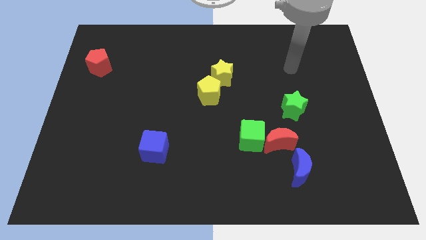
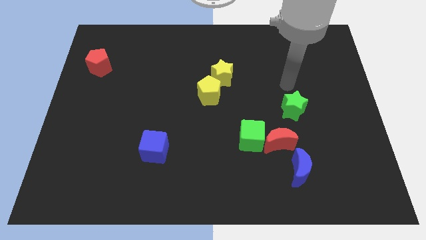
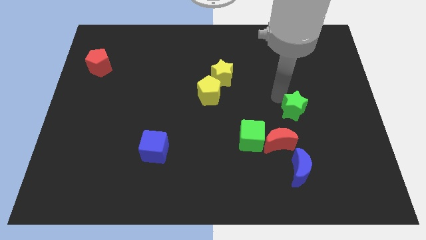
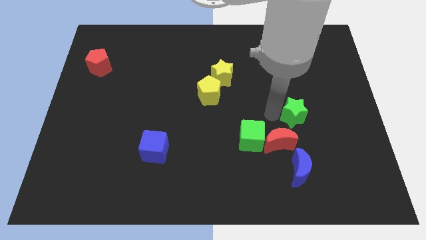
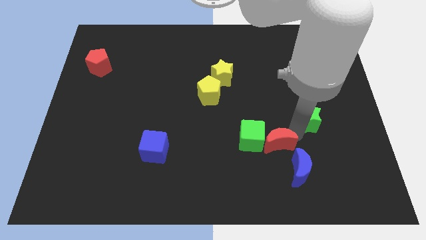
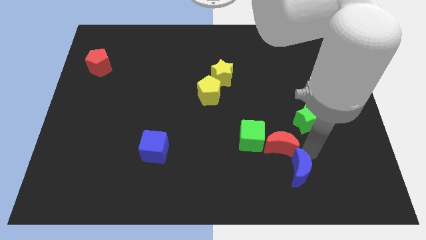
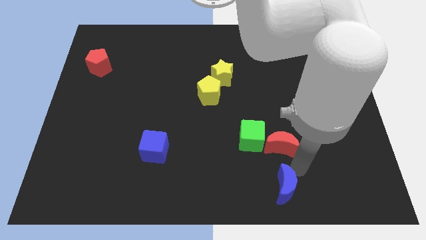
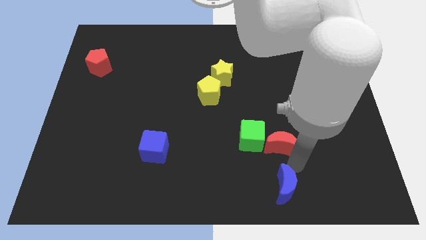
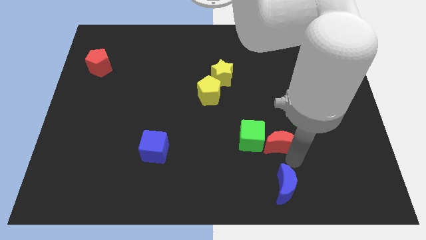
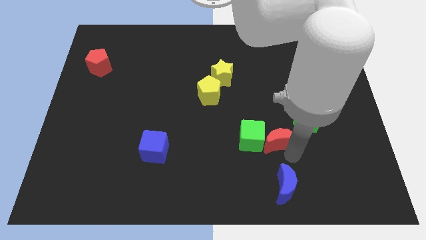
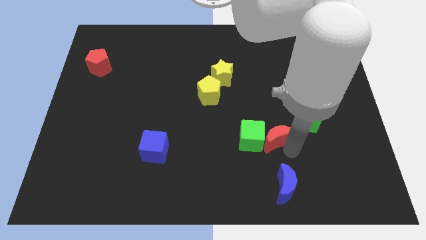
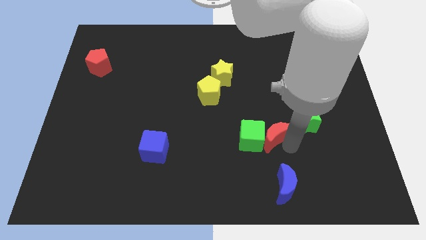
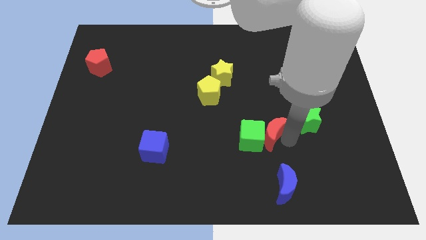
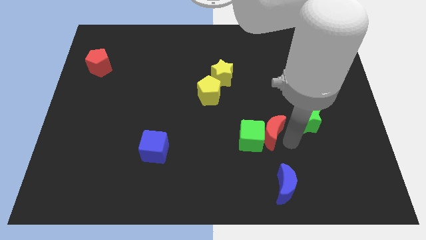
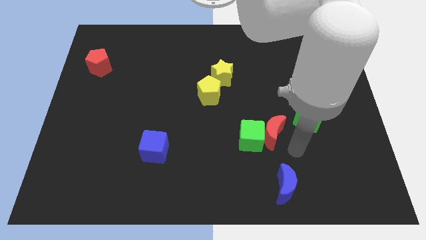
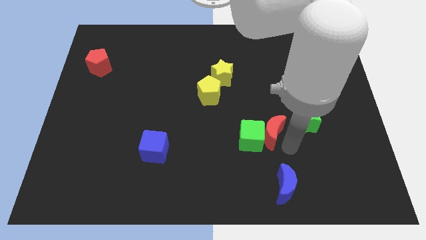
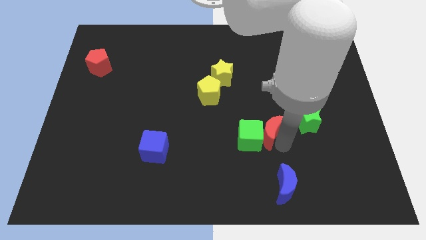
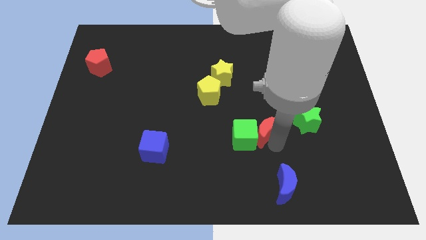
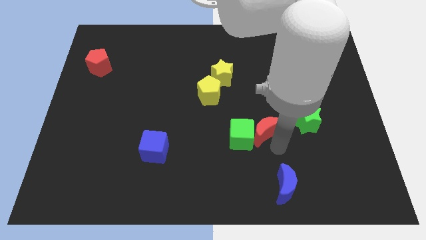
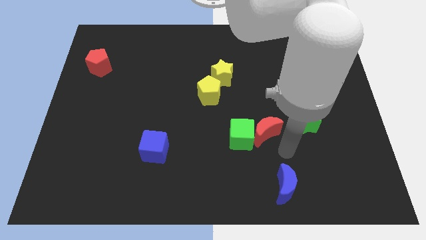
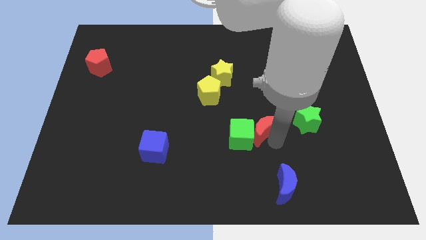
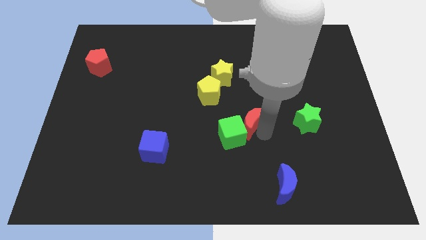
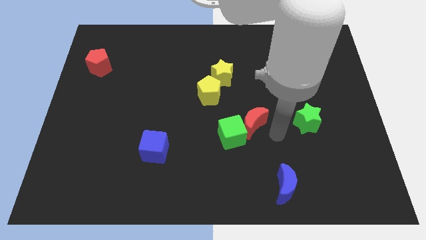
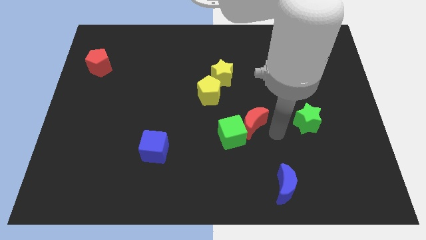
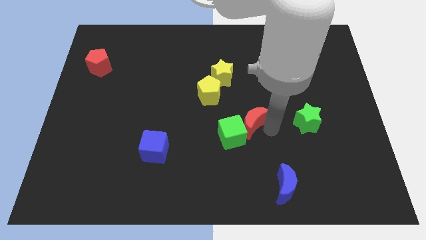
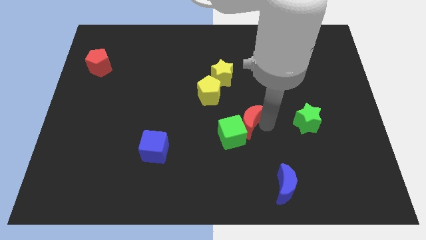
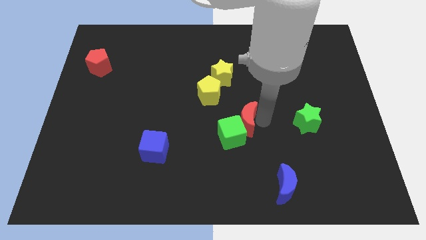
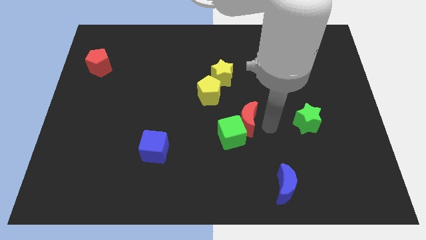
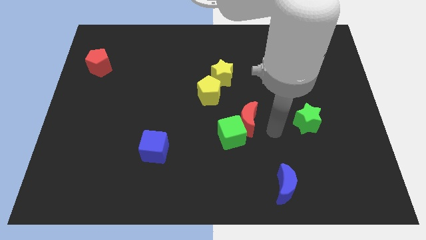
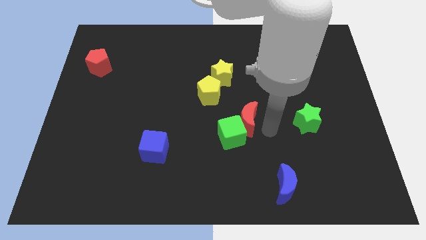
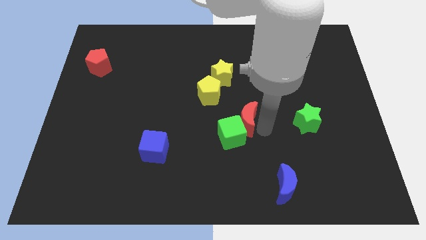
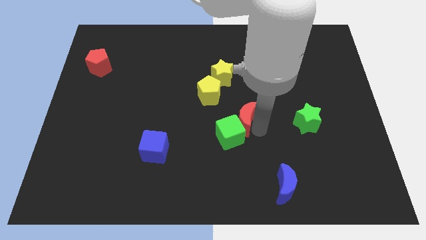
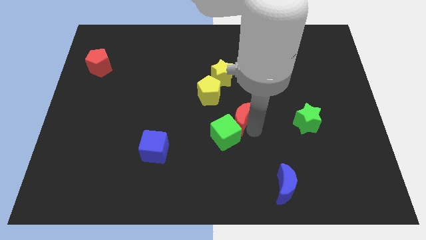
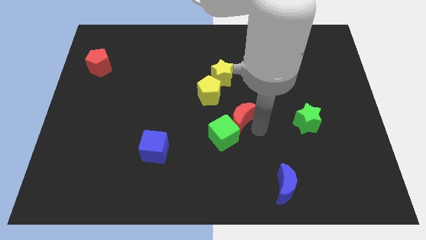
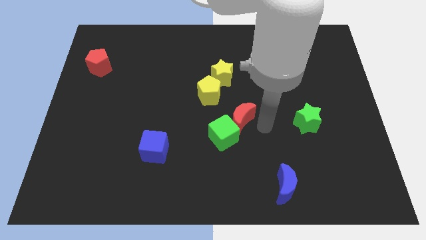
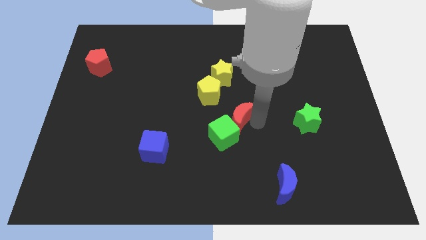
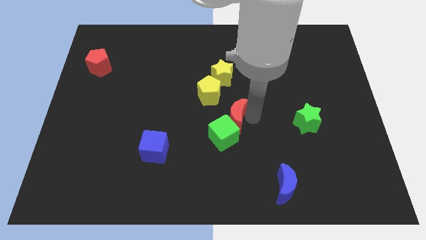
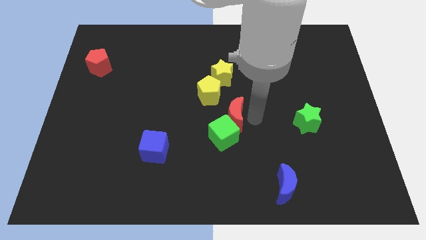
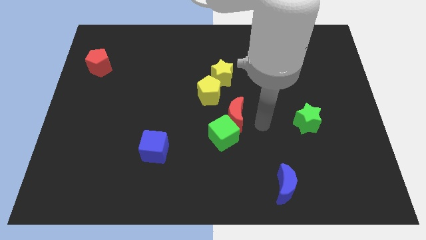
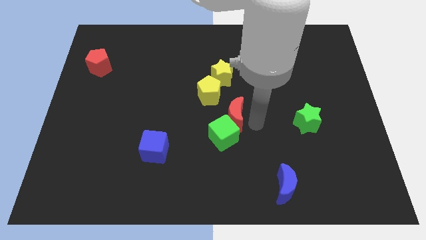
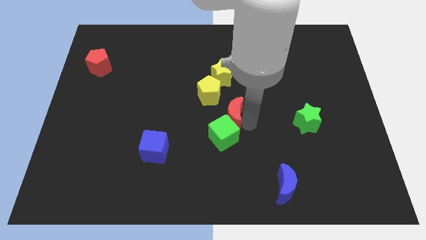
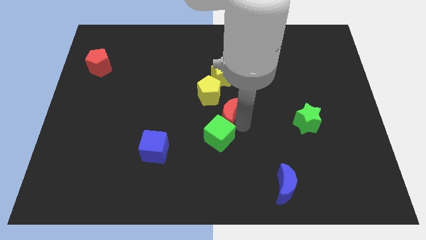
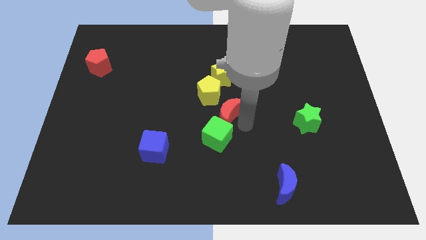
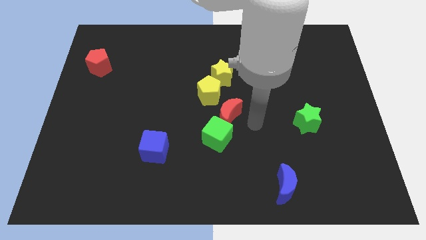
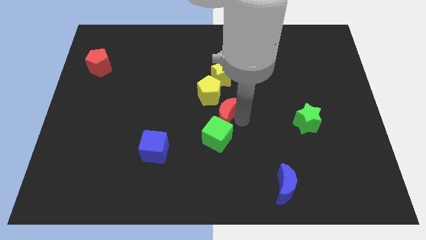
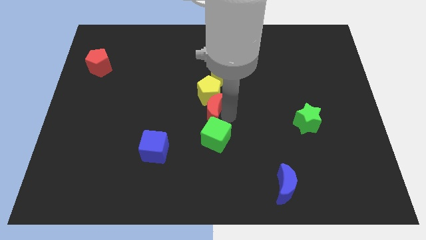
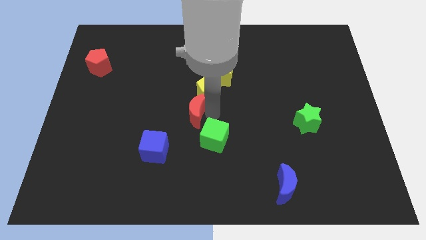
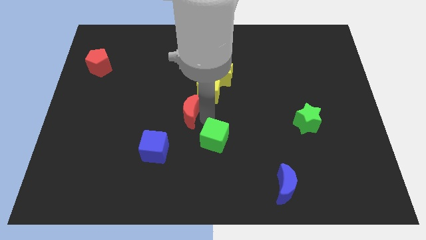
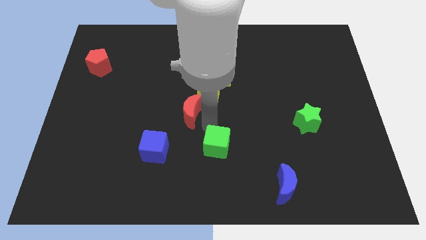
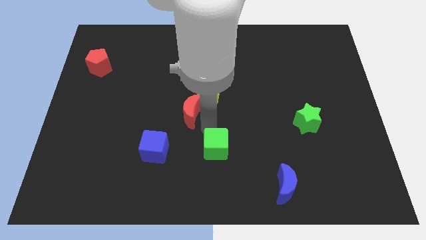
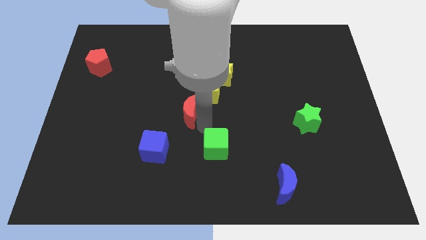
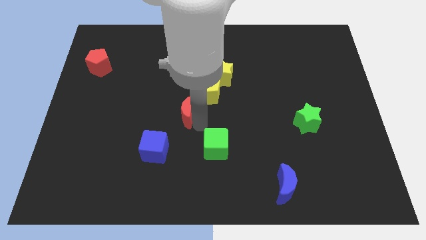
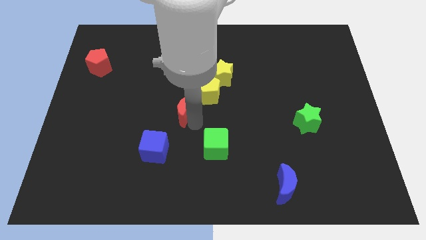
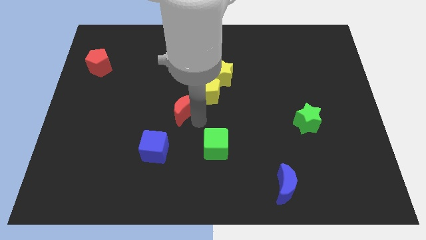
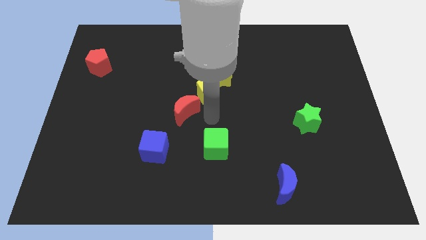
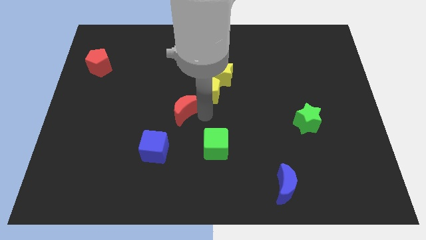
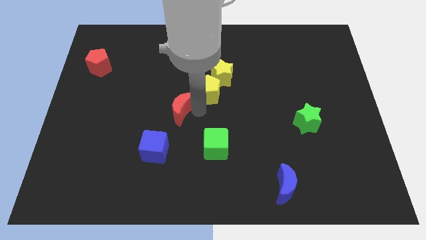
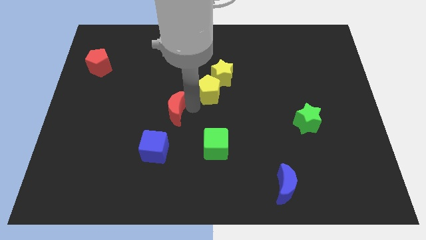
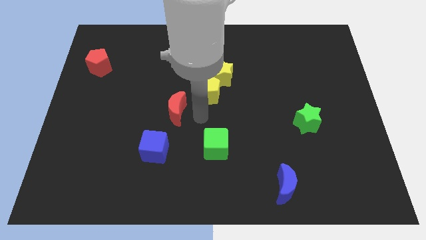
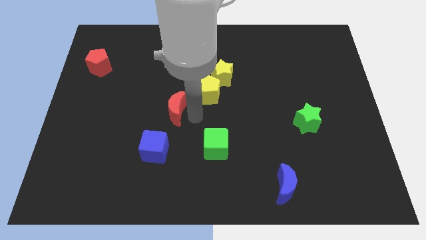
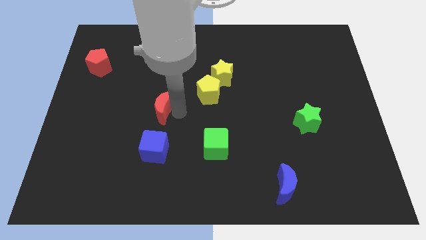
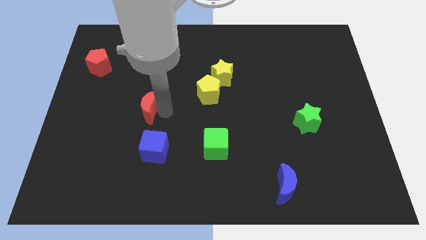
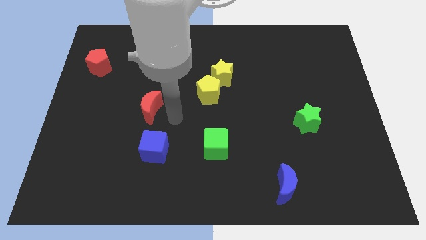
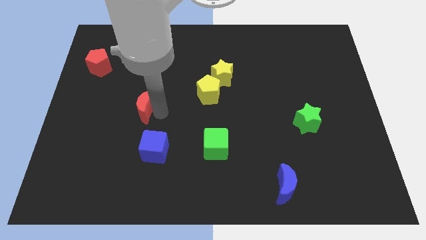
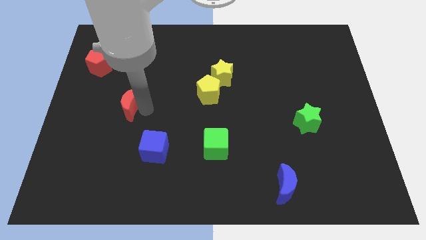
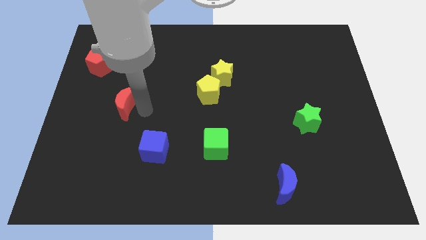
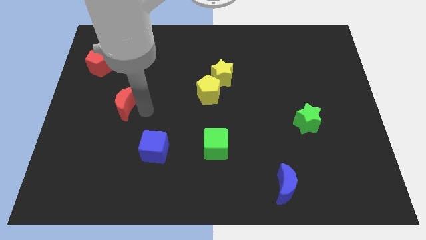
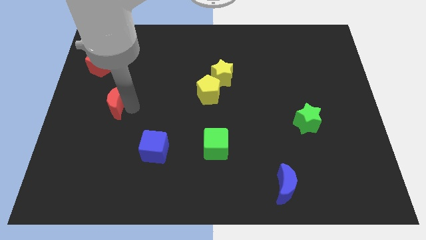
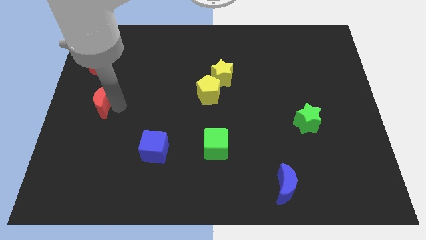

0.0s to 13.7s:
push the red moon to the left side
